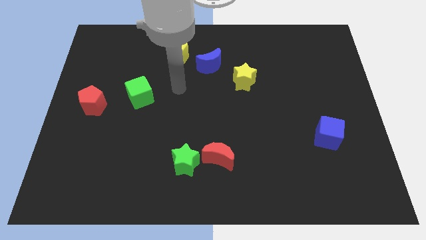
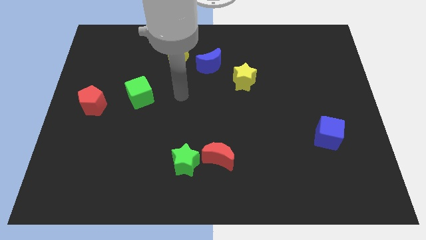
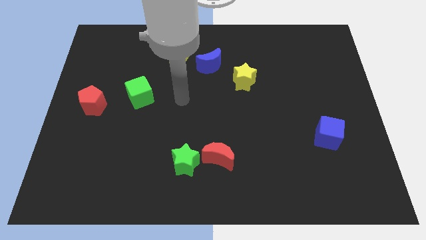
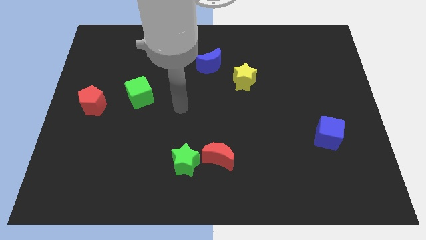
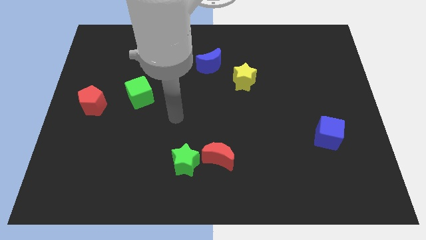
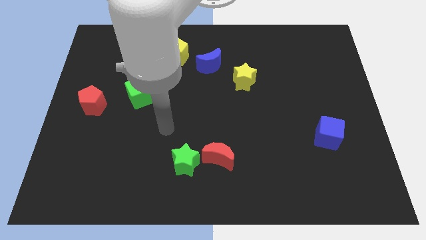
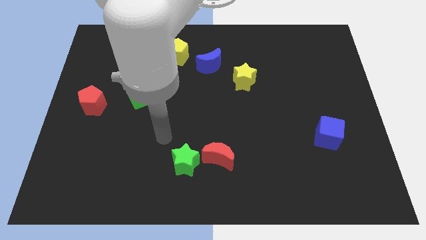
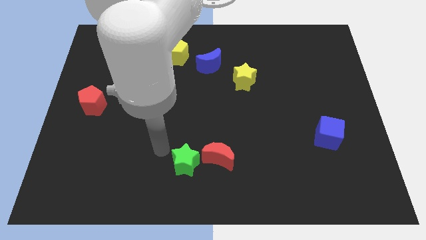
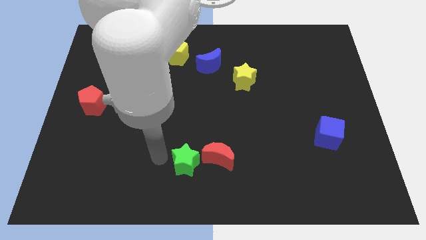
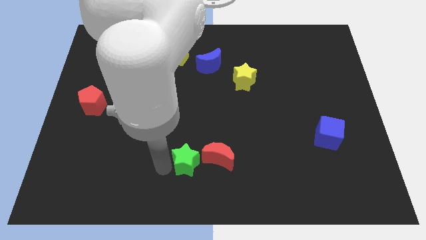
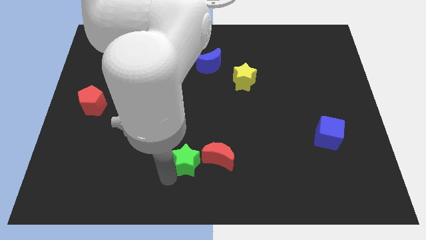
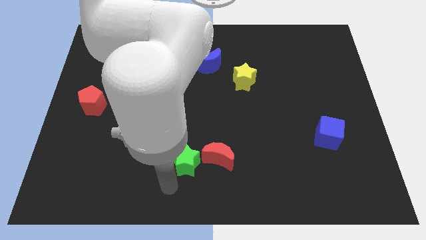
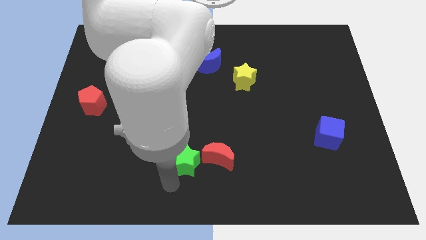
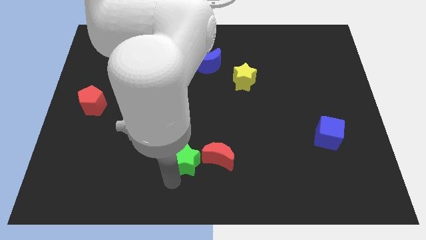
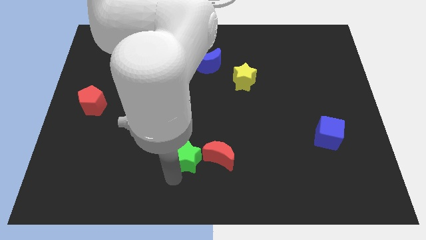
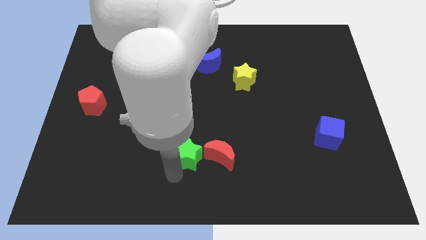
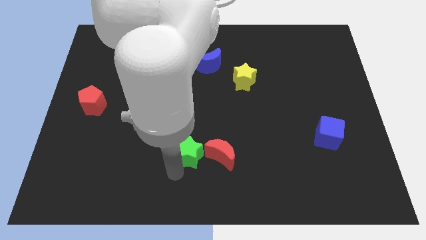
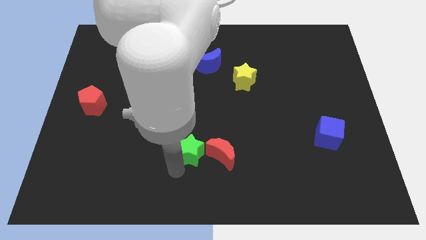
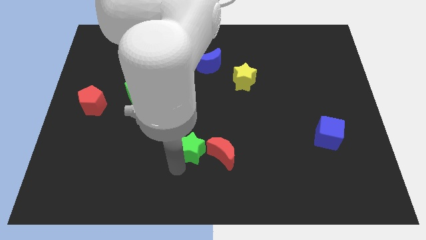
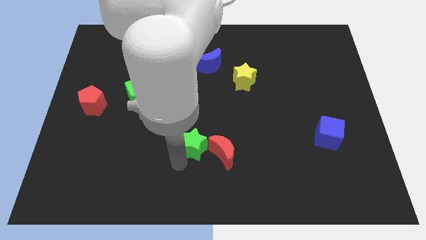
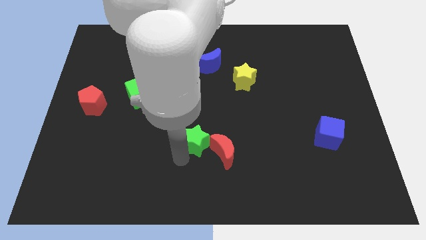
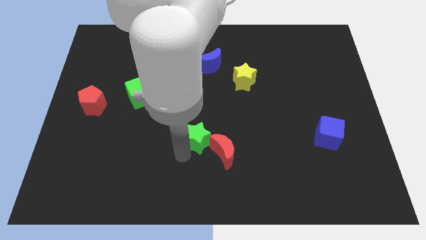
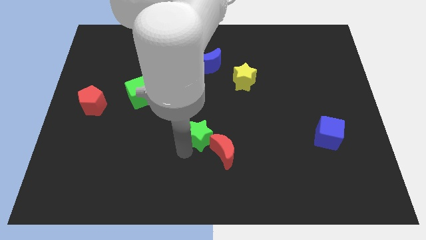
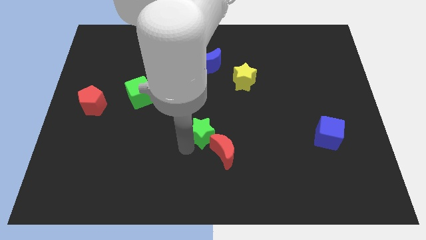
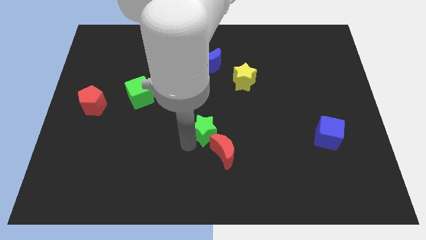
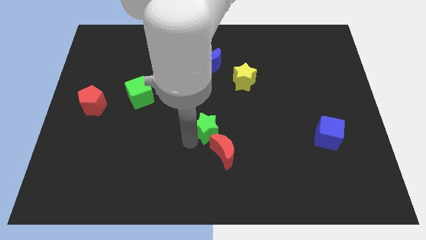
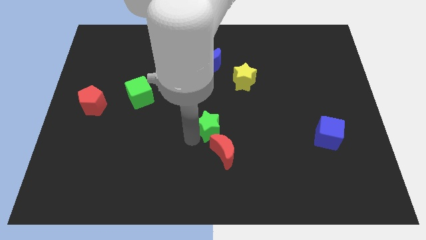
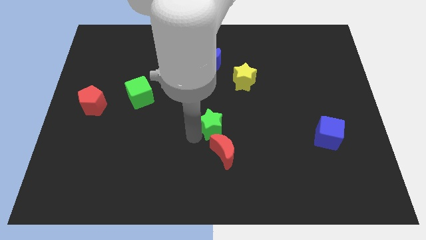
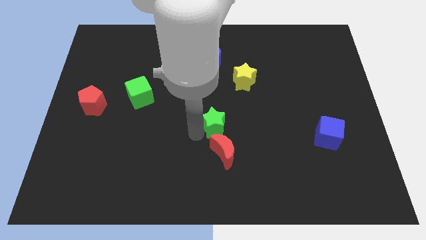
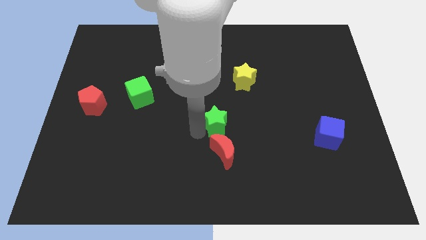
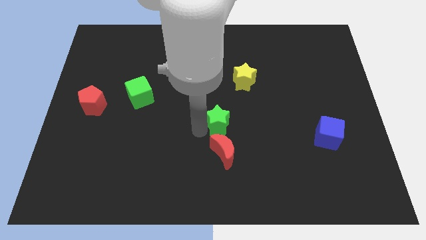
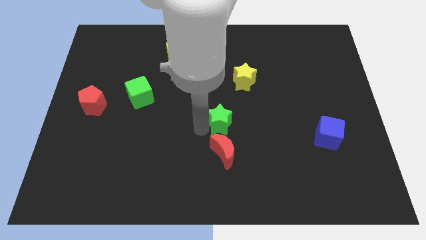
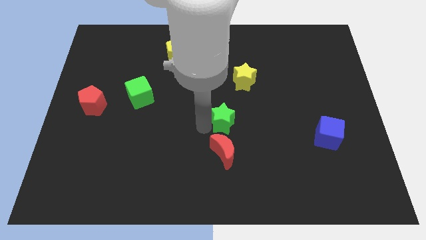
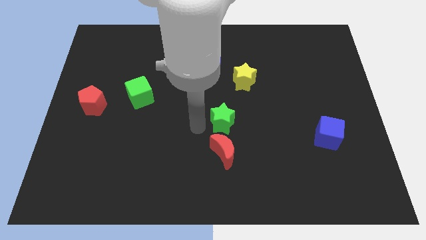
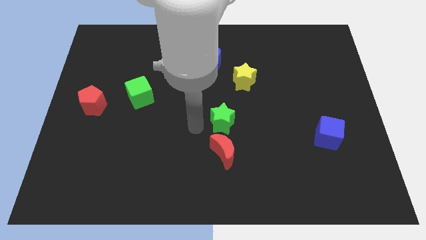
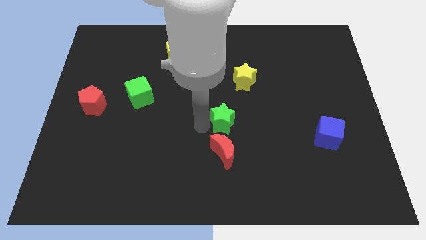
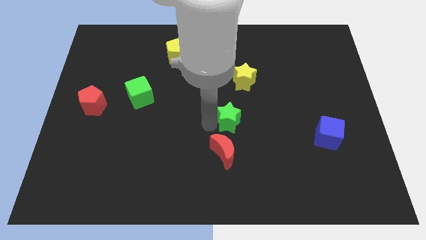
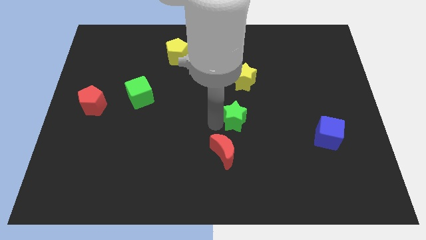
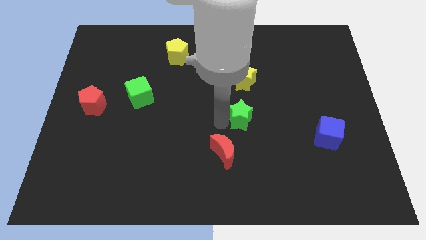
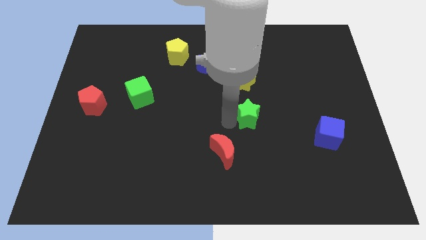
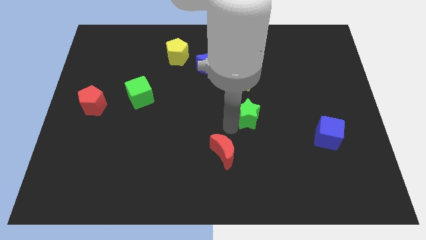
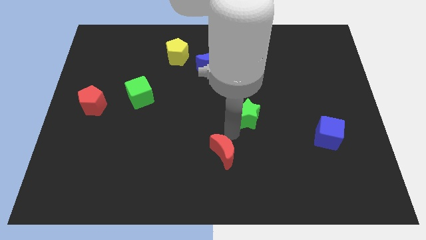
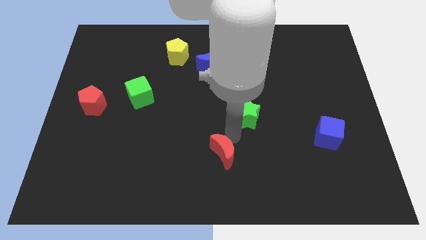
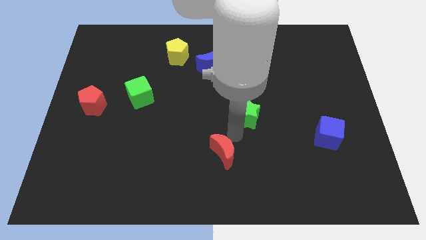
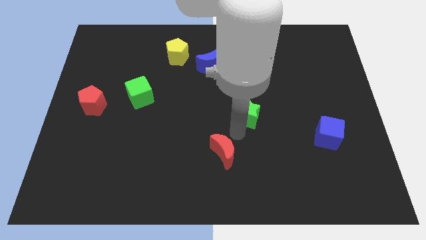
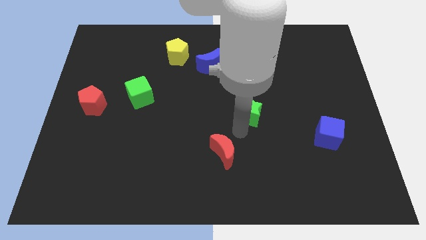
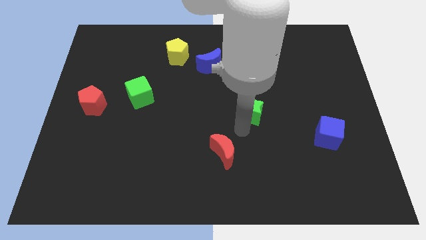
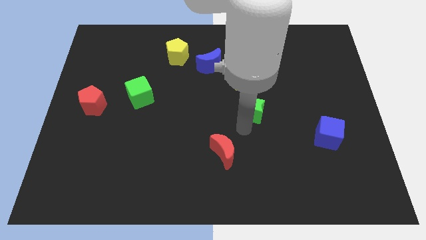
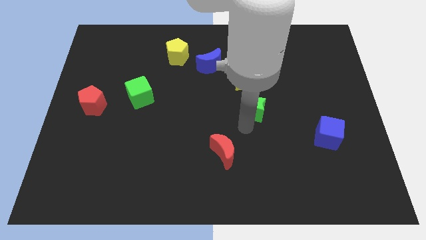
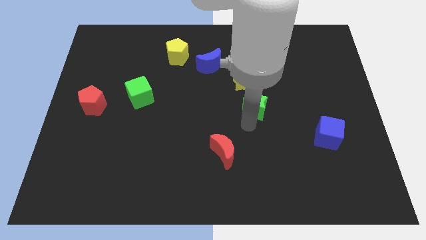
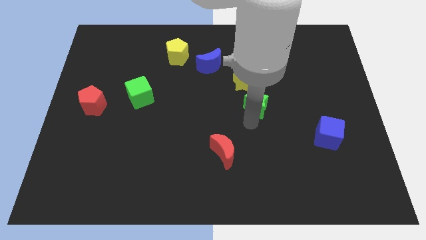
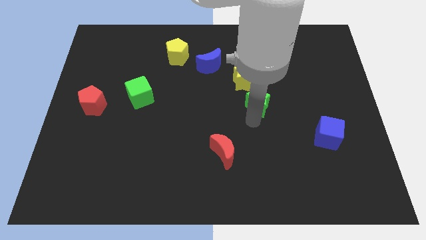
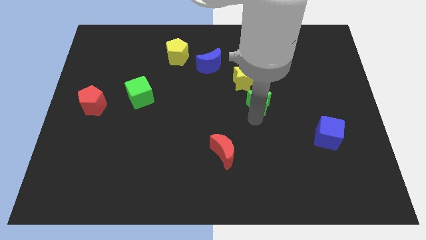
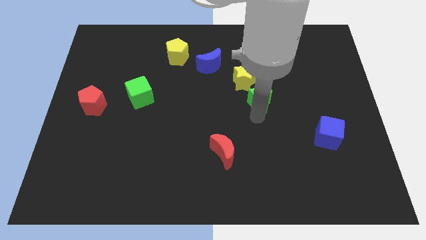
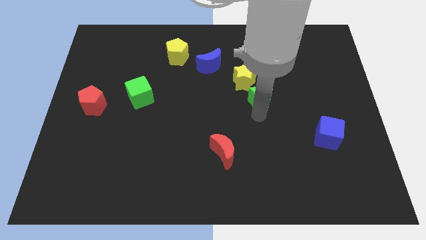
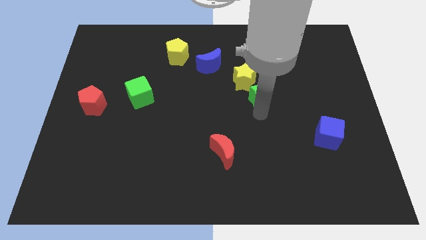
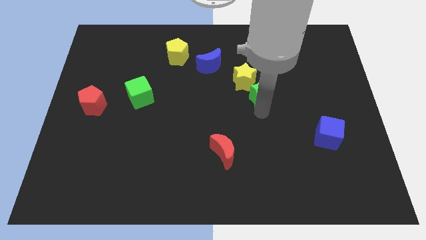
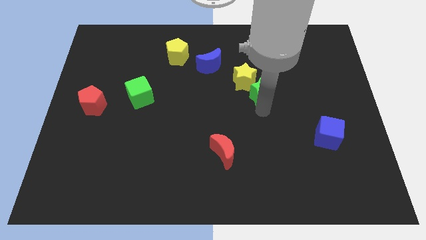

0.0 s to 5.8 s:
push the green star to the right side of the yellow star

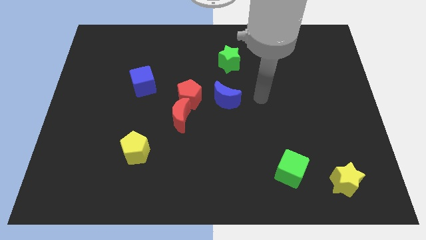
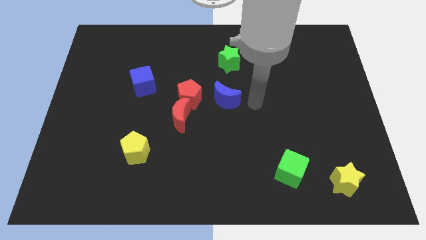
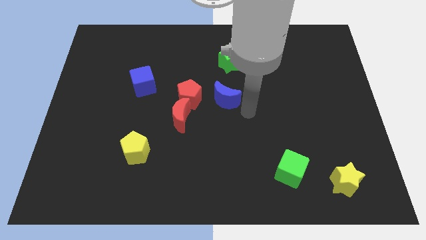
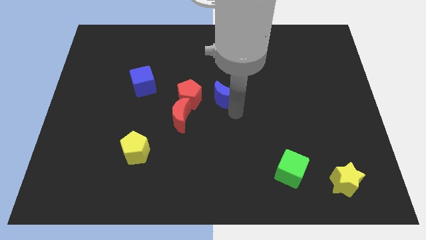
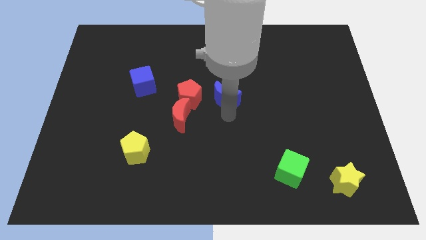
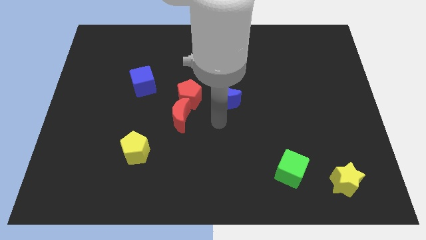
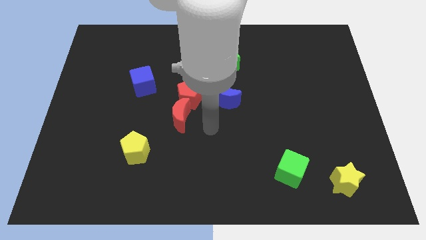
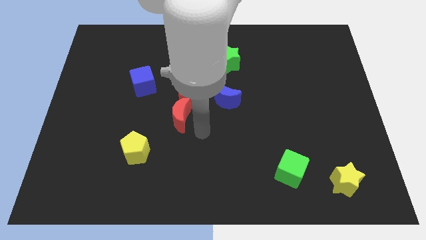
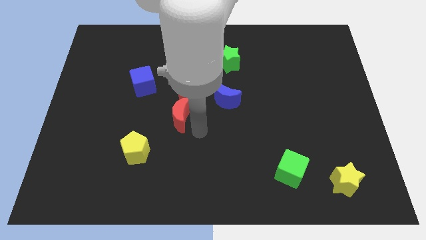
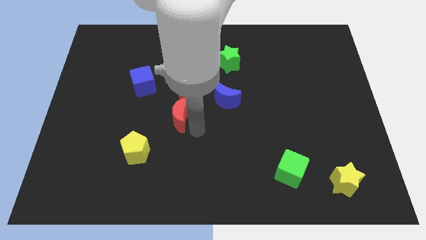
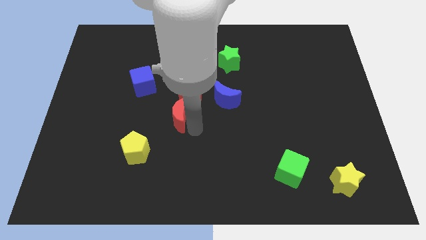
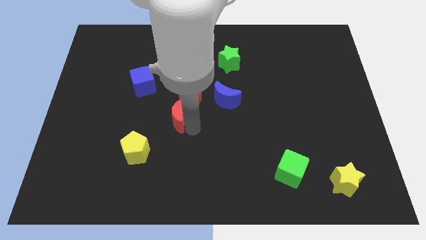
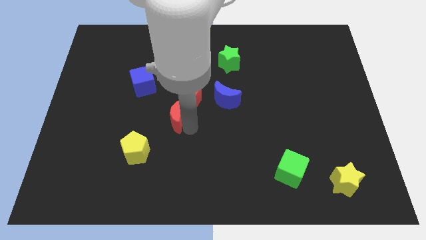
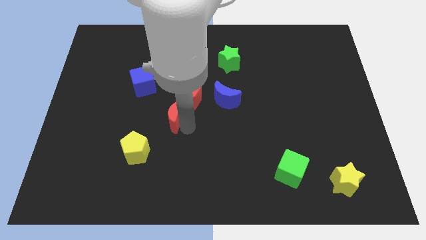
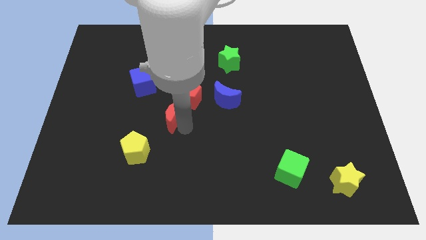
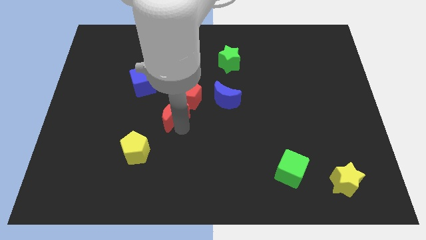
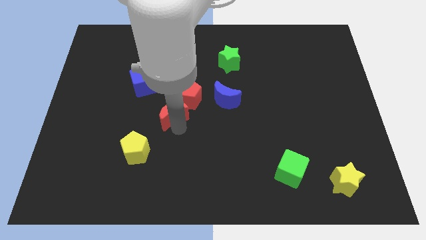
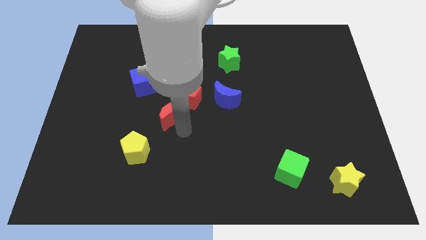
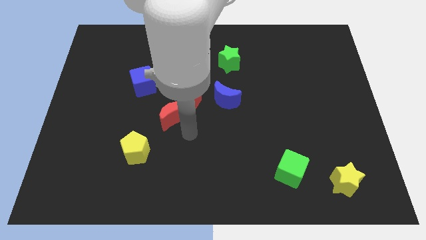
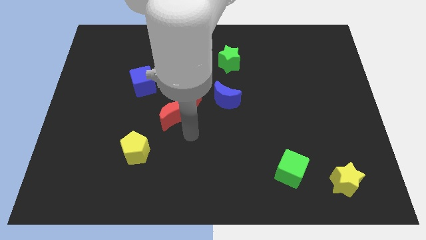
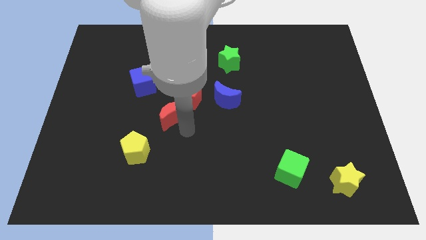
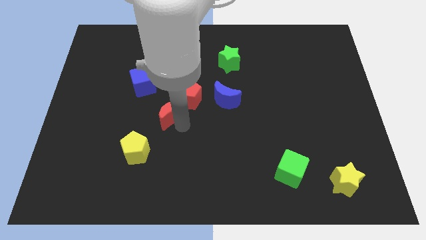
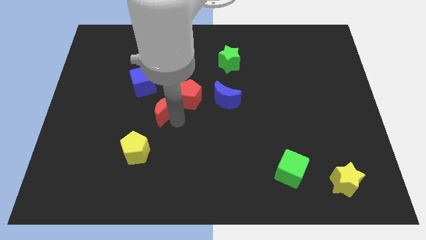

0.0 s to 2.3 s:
move the red moon left of the red pentagon
